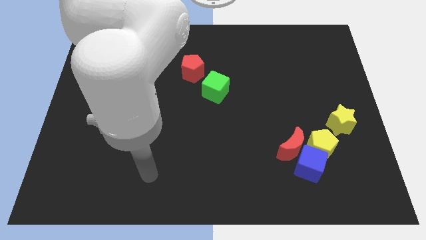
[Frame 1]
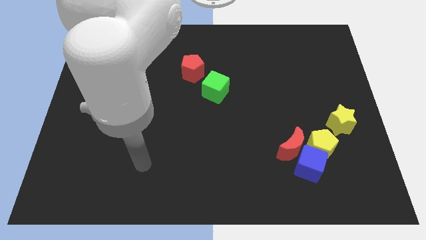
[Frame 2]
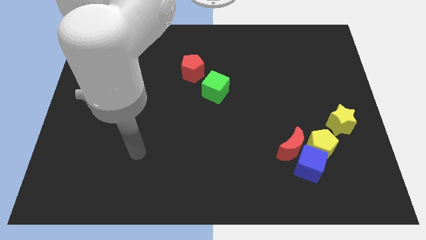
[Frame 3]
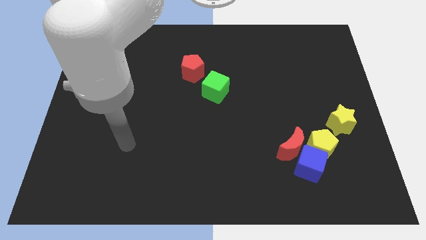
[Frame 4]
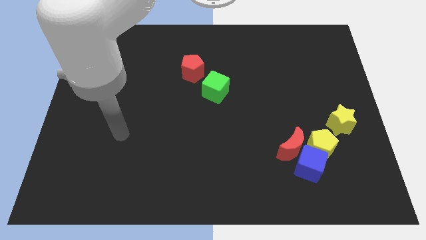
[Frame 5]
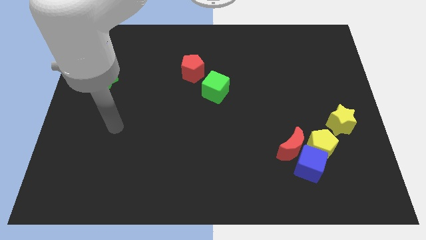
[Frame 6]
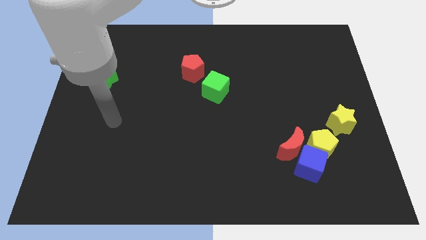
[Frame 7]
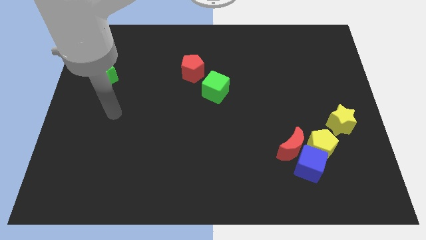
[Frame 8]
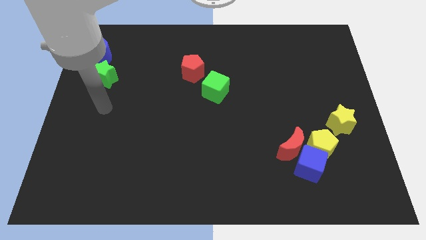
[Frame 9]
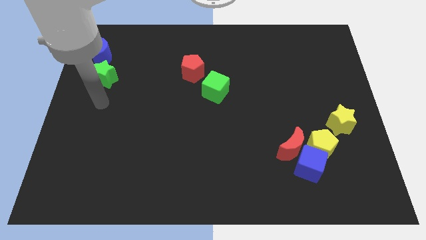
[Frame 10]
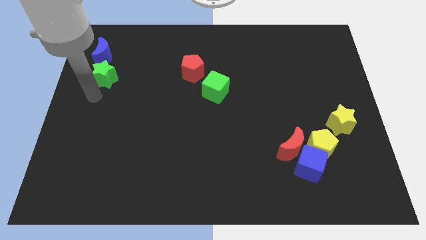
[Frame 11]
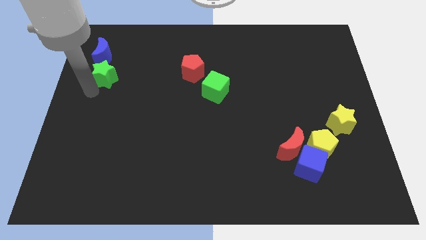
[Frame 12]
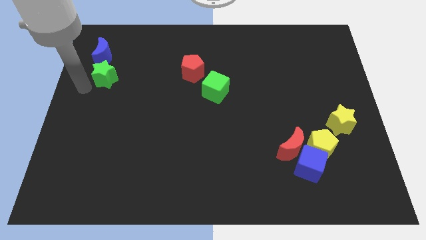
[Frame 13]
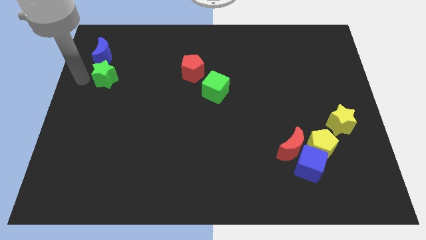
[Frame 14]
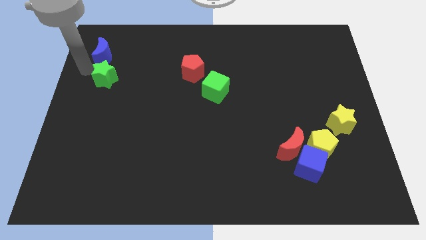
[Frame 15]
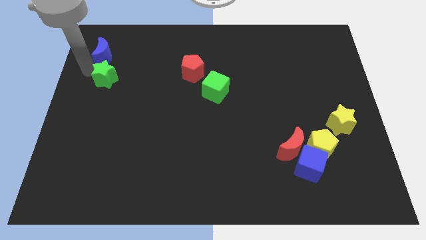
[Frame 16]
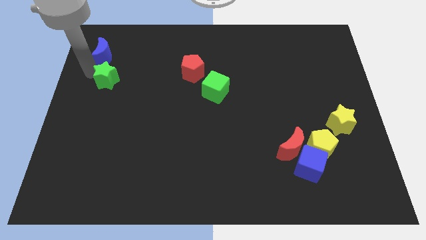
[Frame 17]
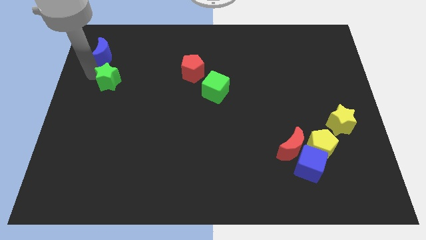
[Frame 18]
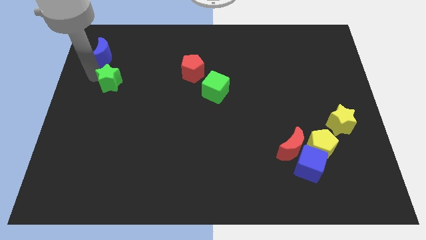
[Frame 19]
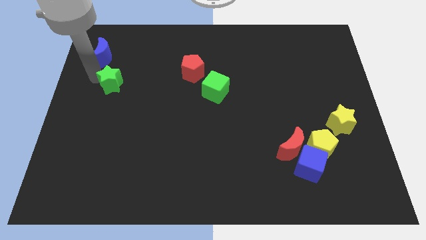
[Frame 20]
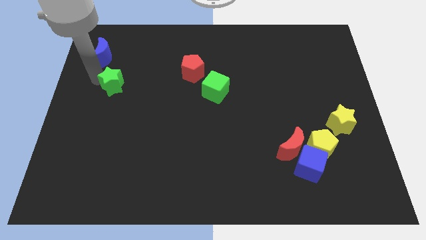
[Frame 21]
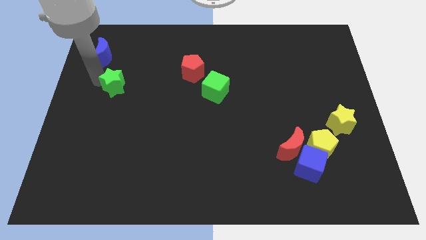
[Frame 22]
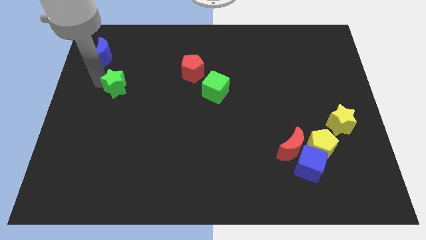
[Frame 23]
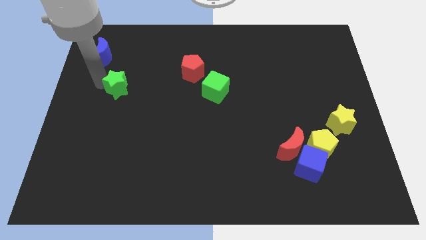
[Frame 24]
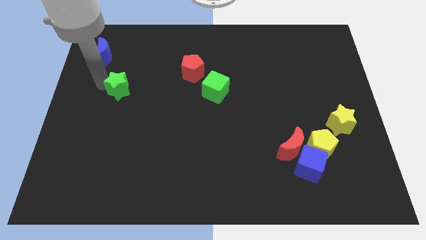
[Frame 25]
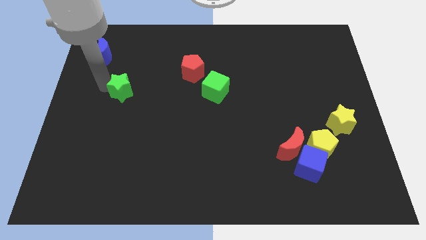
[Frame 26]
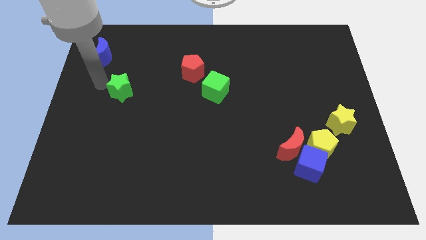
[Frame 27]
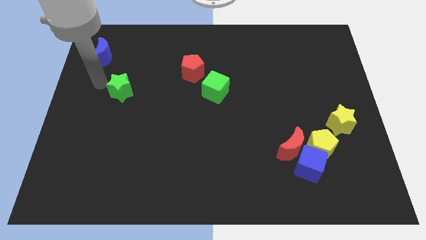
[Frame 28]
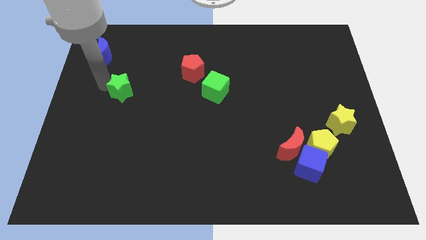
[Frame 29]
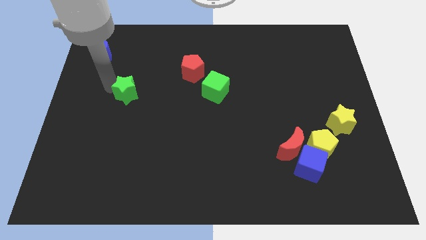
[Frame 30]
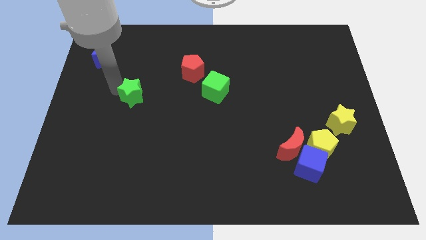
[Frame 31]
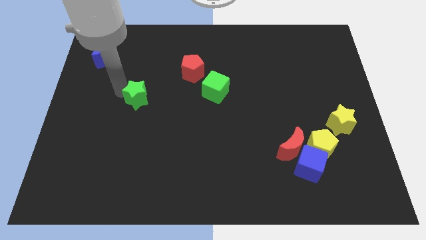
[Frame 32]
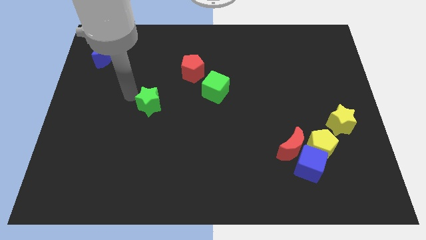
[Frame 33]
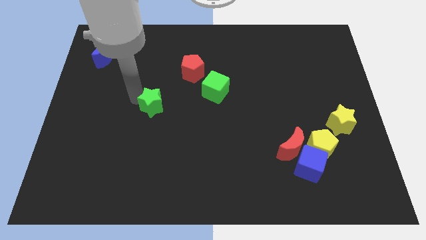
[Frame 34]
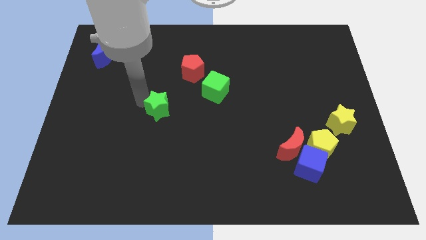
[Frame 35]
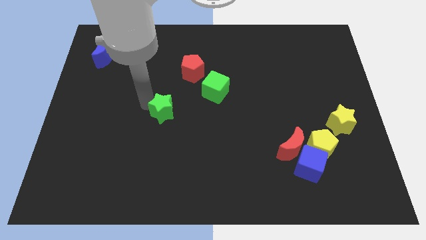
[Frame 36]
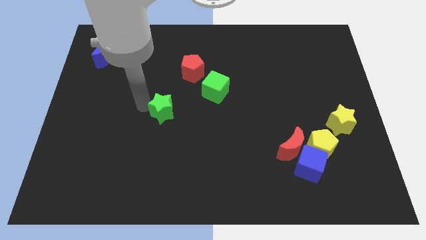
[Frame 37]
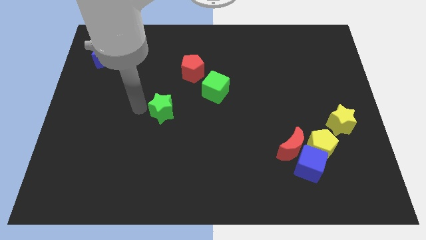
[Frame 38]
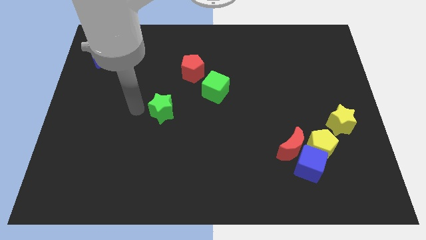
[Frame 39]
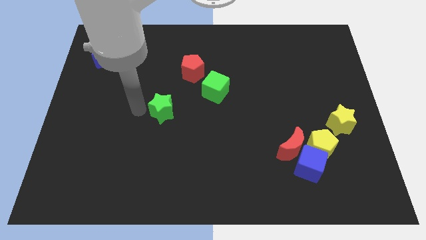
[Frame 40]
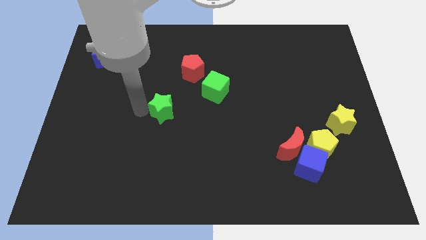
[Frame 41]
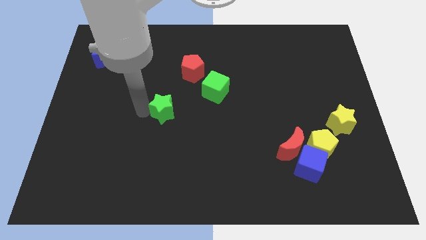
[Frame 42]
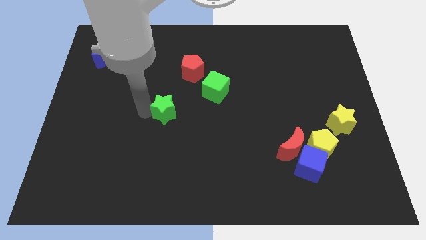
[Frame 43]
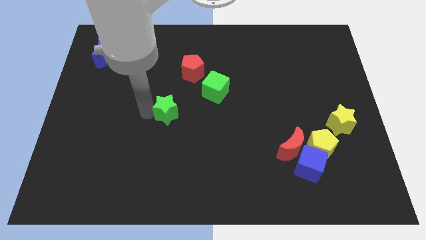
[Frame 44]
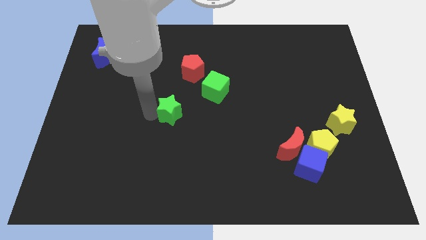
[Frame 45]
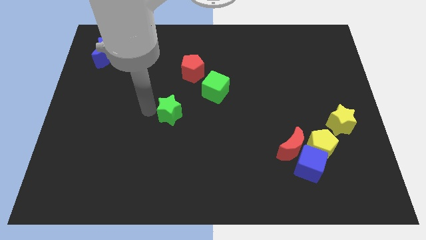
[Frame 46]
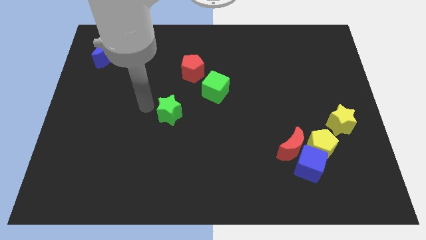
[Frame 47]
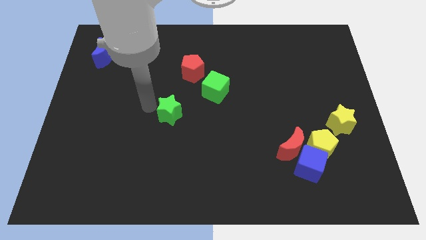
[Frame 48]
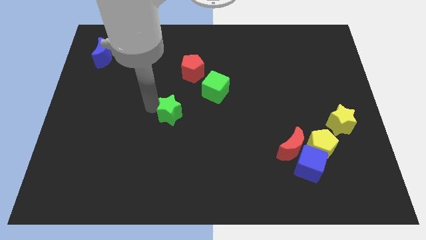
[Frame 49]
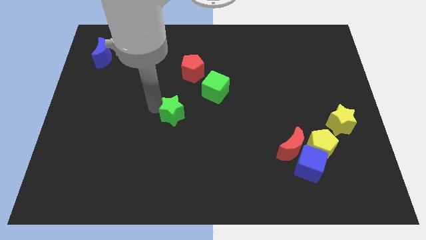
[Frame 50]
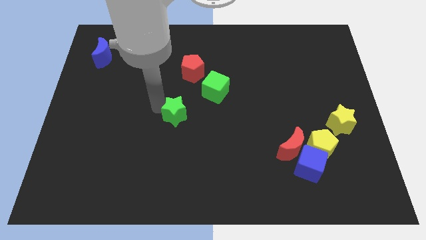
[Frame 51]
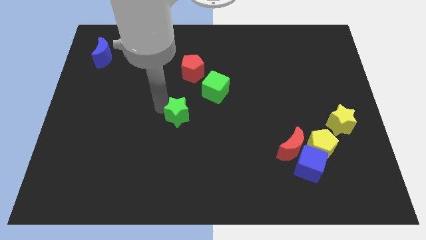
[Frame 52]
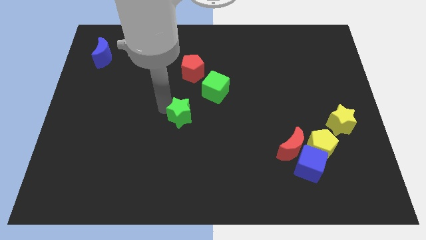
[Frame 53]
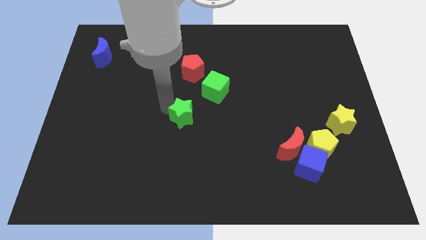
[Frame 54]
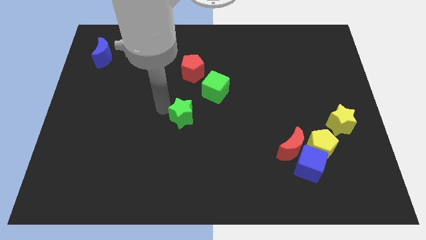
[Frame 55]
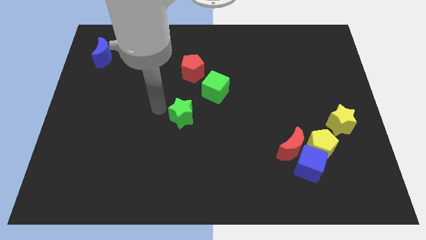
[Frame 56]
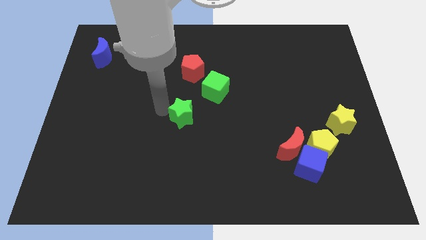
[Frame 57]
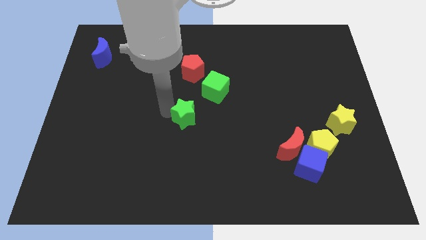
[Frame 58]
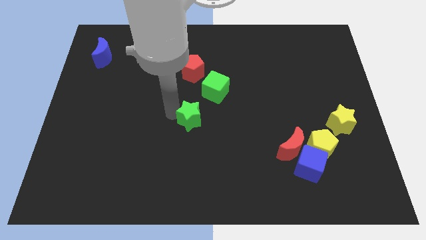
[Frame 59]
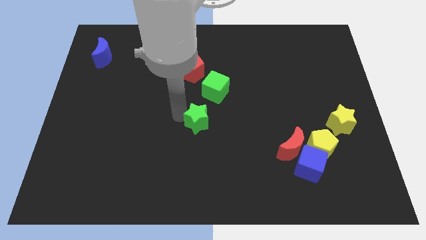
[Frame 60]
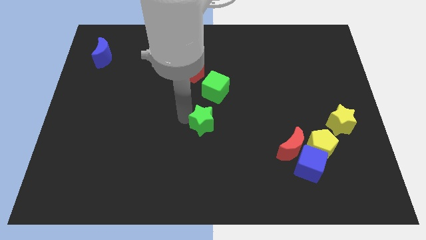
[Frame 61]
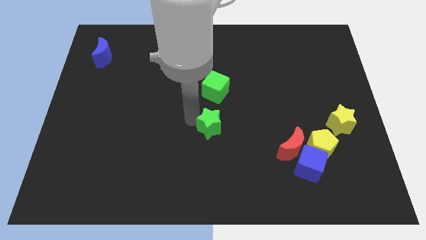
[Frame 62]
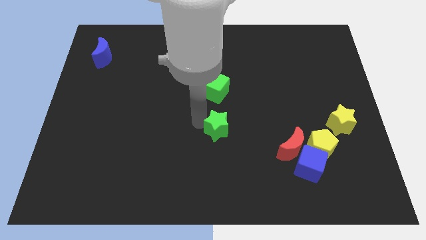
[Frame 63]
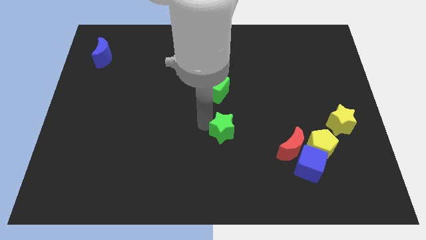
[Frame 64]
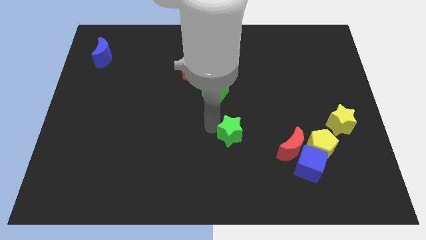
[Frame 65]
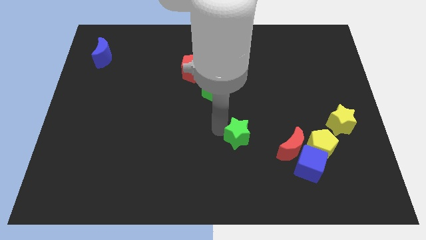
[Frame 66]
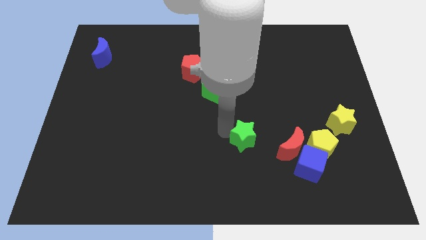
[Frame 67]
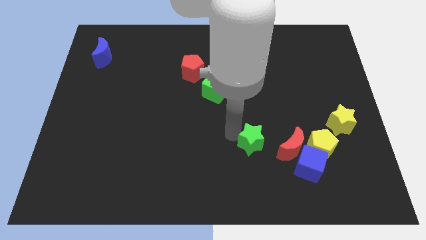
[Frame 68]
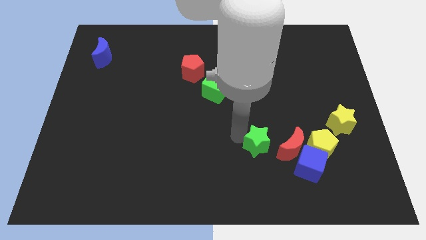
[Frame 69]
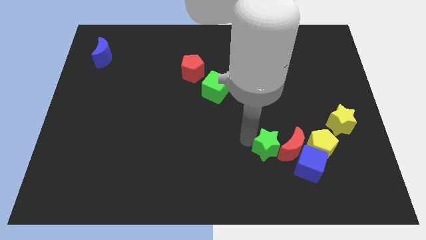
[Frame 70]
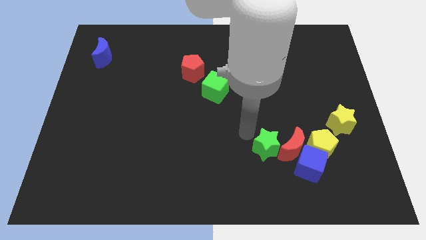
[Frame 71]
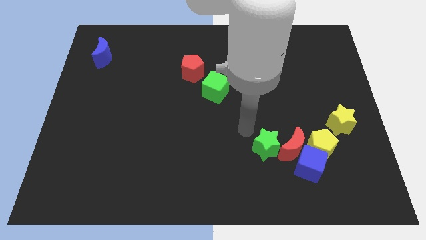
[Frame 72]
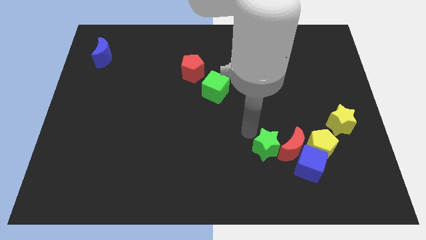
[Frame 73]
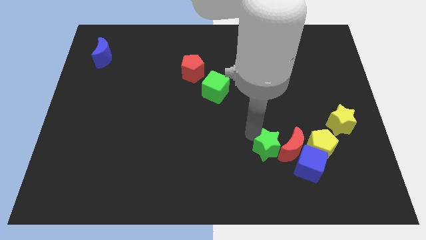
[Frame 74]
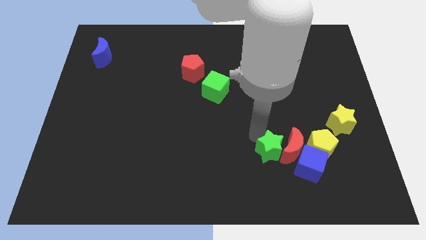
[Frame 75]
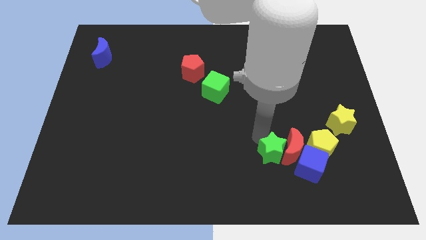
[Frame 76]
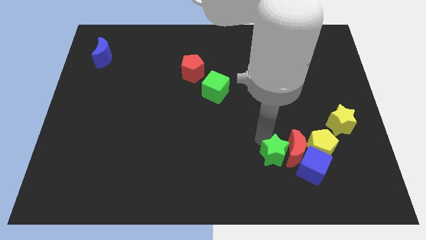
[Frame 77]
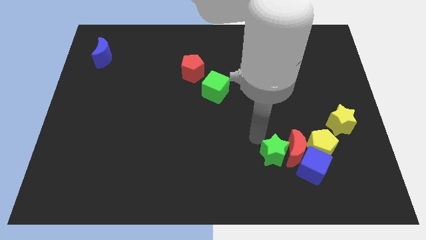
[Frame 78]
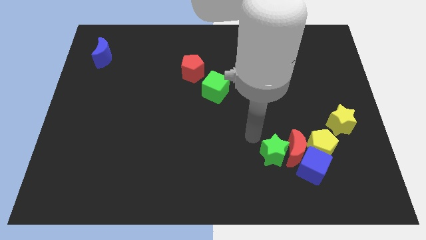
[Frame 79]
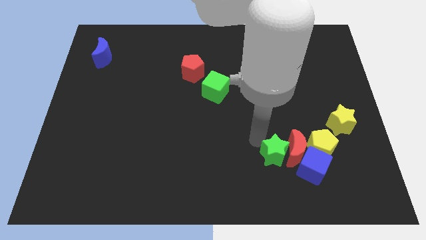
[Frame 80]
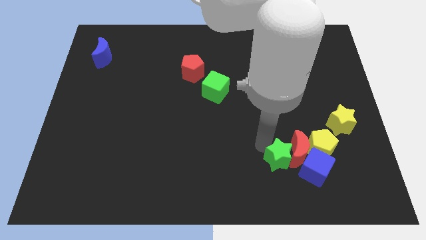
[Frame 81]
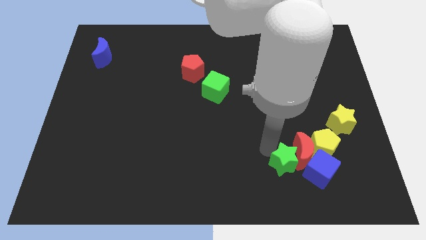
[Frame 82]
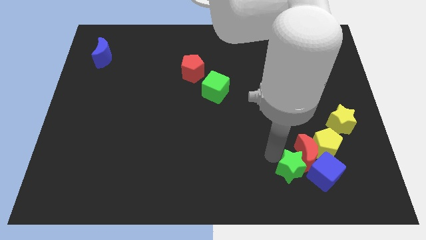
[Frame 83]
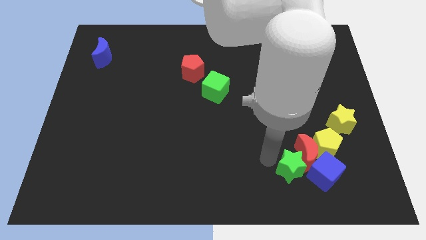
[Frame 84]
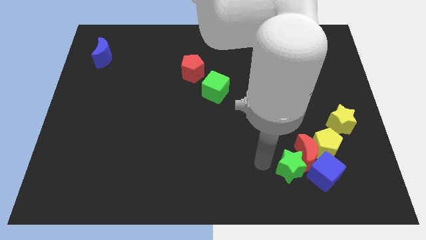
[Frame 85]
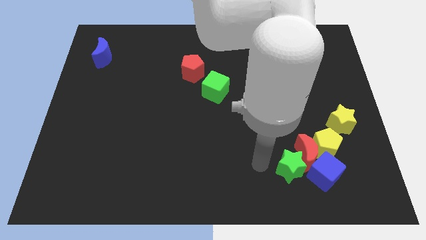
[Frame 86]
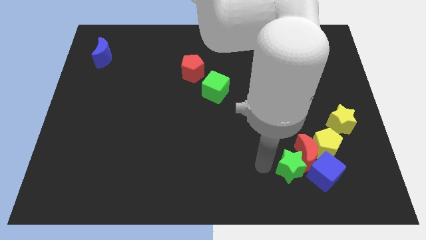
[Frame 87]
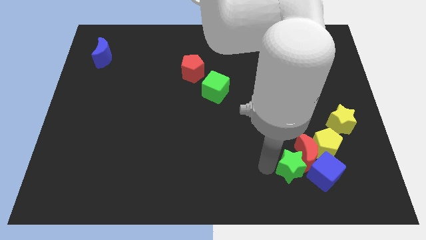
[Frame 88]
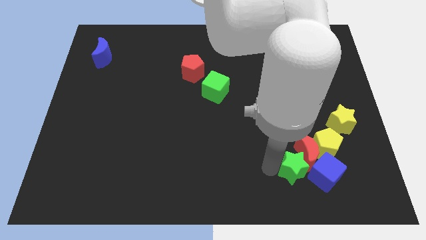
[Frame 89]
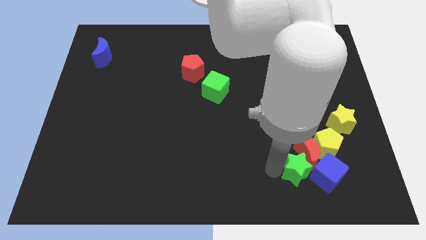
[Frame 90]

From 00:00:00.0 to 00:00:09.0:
move the green star next to the blue cube
